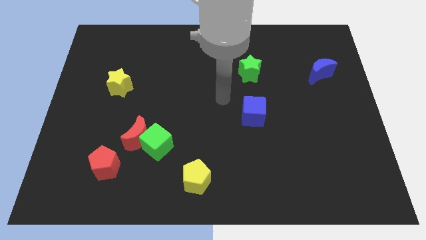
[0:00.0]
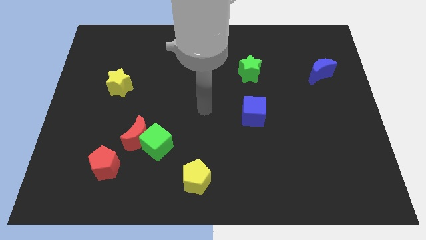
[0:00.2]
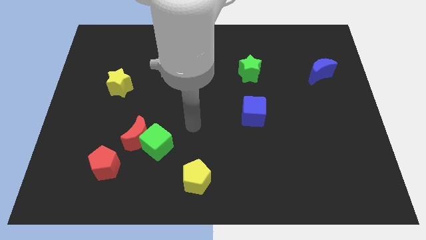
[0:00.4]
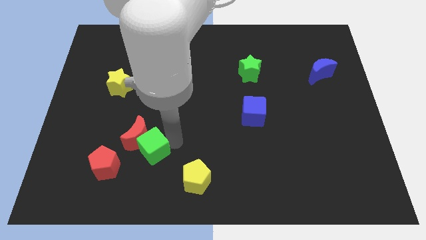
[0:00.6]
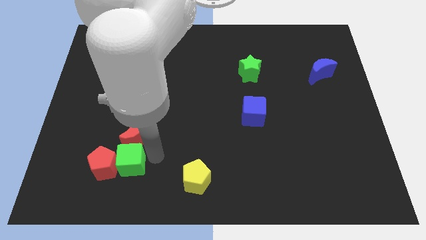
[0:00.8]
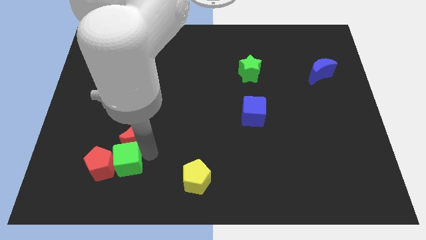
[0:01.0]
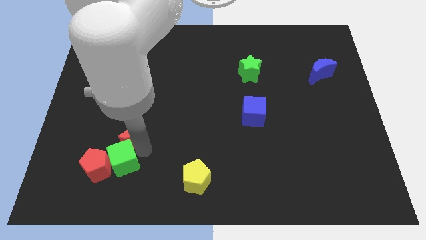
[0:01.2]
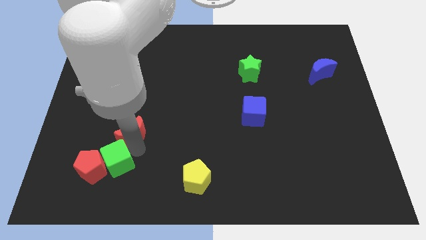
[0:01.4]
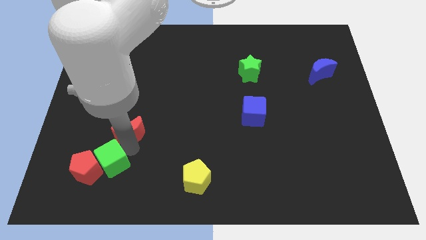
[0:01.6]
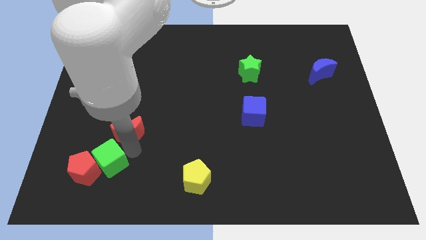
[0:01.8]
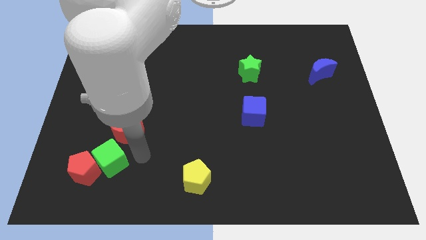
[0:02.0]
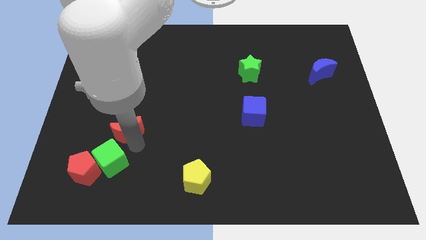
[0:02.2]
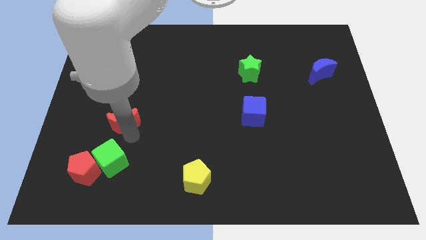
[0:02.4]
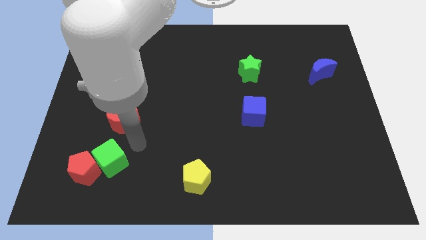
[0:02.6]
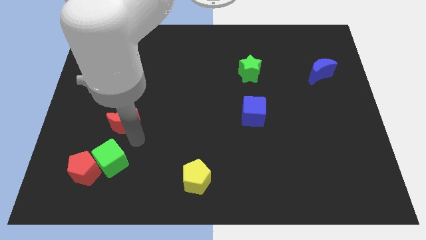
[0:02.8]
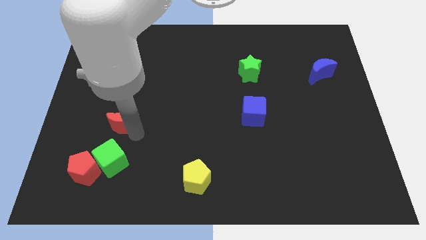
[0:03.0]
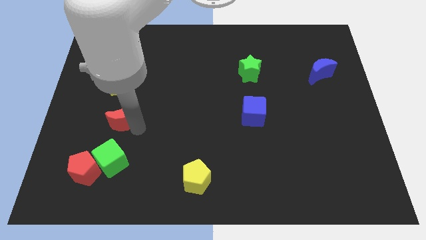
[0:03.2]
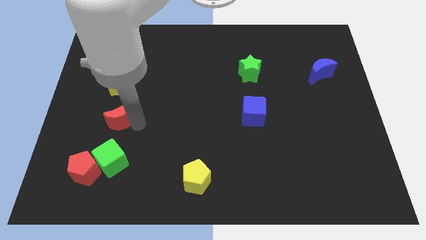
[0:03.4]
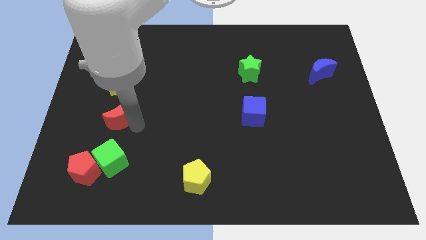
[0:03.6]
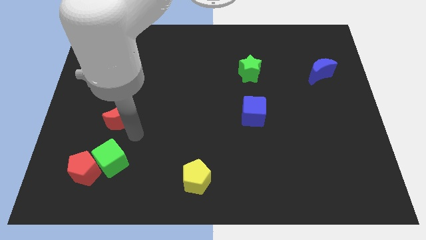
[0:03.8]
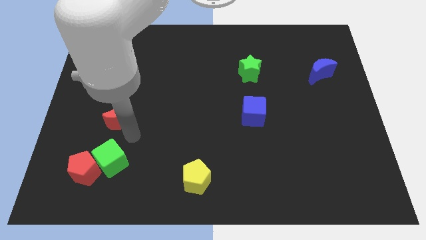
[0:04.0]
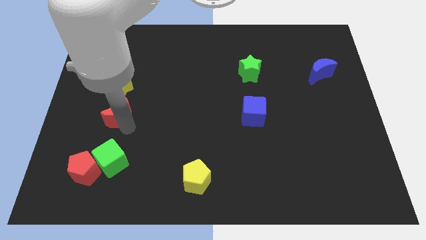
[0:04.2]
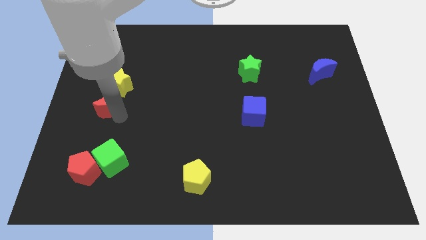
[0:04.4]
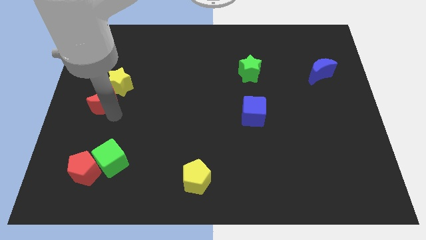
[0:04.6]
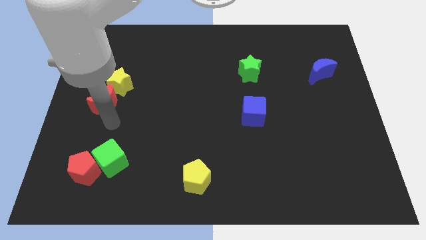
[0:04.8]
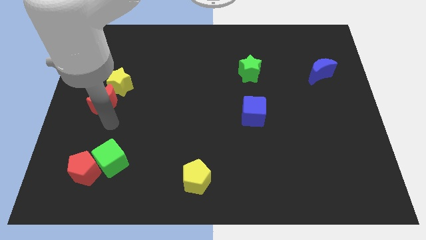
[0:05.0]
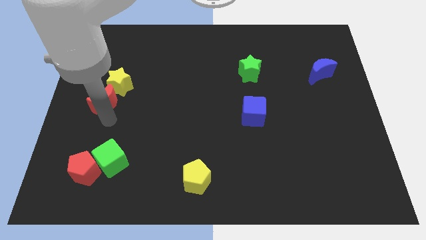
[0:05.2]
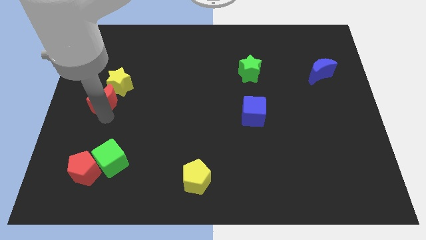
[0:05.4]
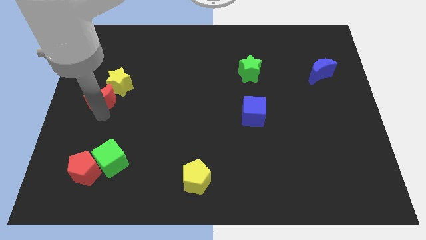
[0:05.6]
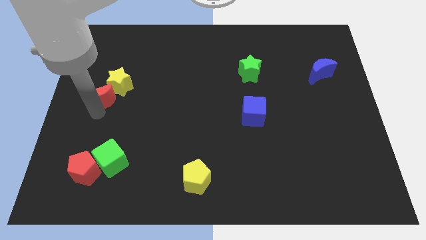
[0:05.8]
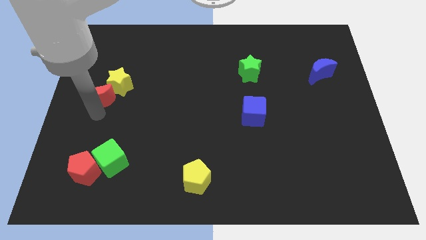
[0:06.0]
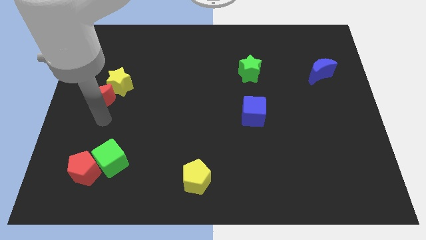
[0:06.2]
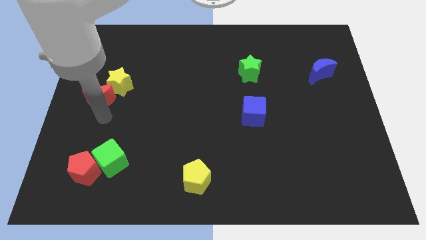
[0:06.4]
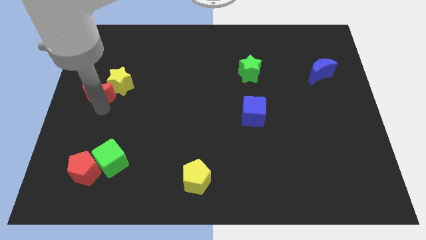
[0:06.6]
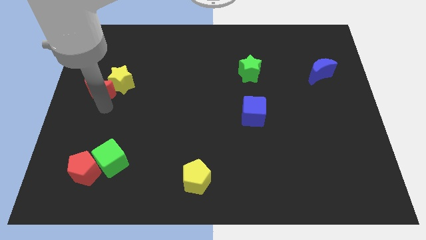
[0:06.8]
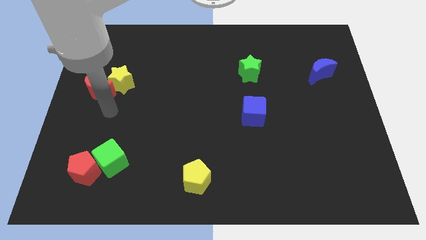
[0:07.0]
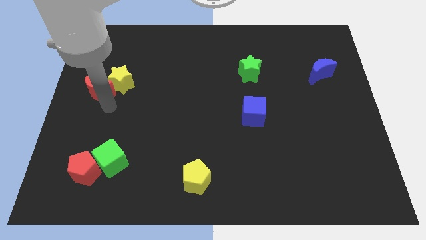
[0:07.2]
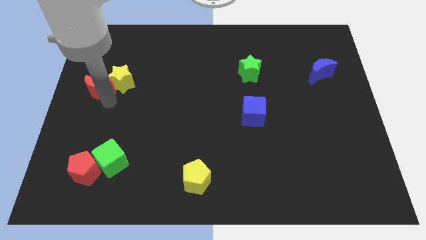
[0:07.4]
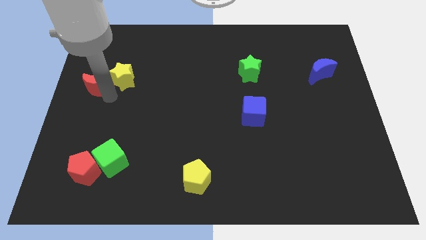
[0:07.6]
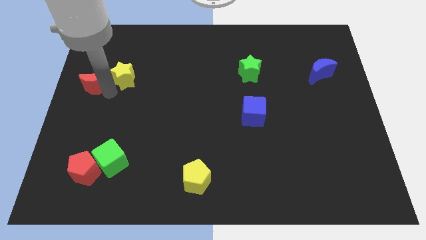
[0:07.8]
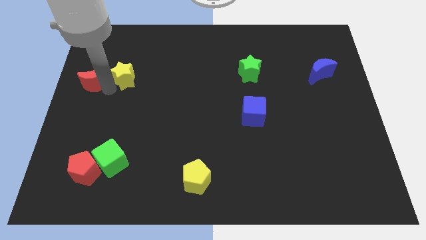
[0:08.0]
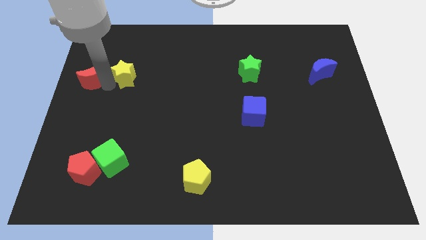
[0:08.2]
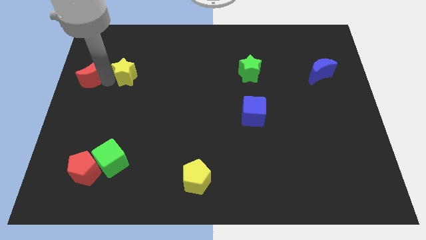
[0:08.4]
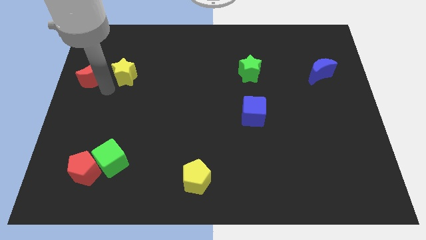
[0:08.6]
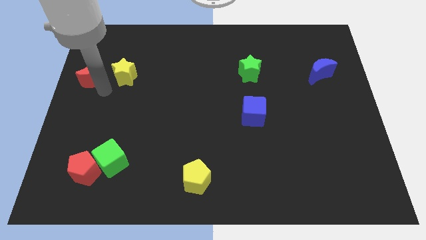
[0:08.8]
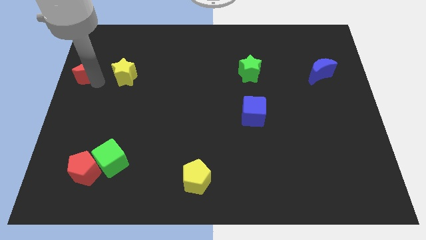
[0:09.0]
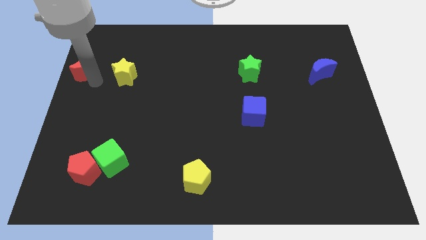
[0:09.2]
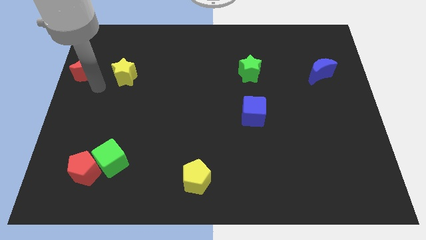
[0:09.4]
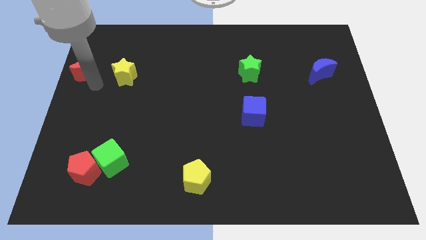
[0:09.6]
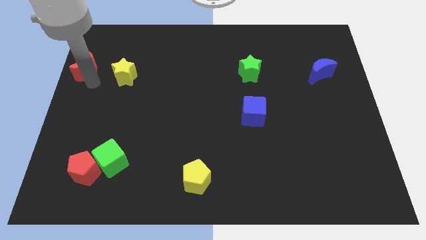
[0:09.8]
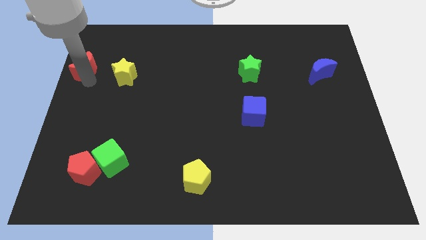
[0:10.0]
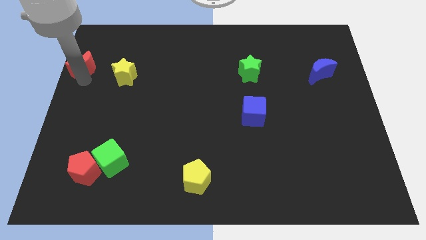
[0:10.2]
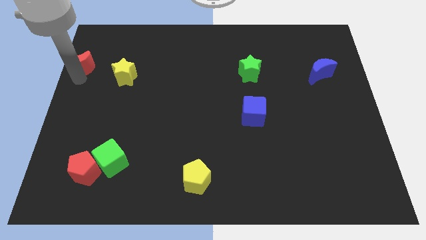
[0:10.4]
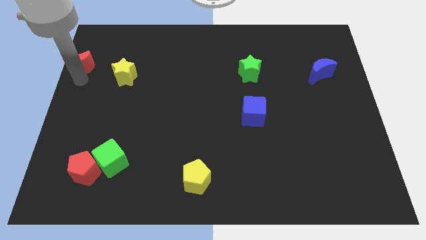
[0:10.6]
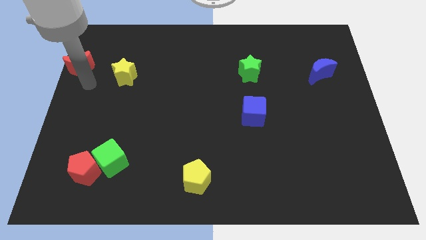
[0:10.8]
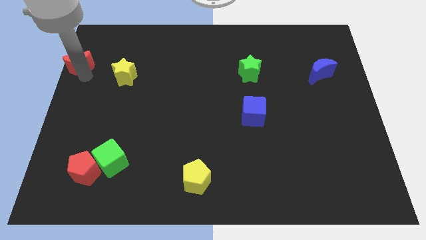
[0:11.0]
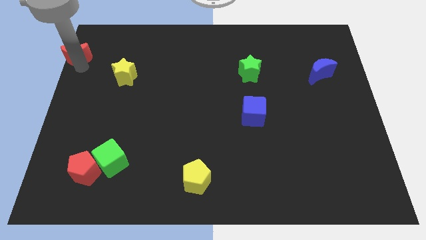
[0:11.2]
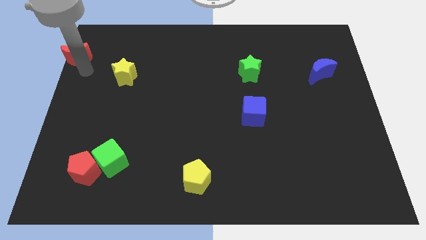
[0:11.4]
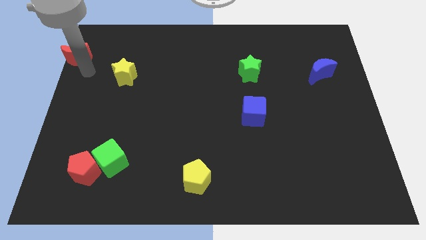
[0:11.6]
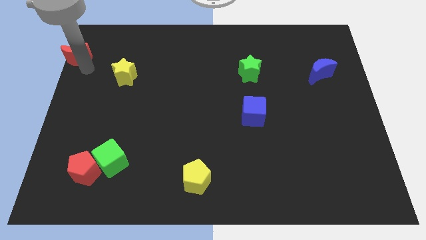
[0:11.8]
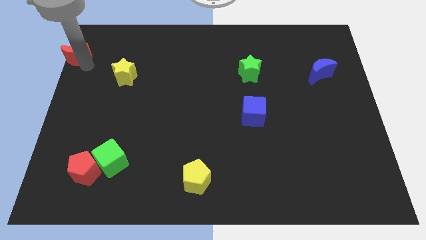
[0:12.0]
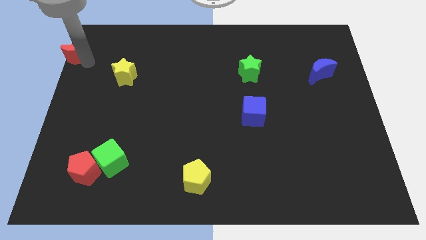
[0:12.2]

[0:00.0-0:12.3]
move the red moon to the upper left corner

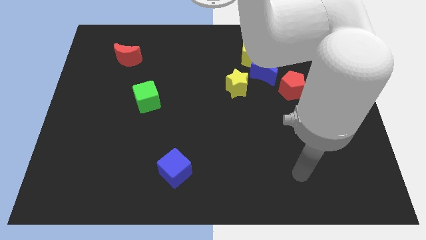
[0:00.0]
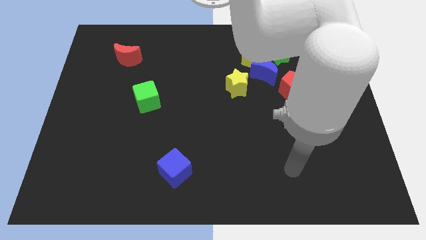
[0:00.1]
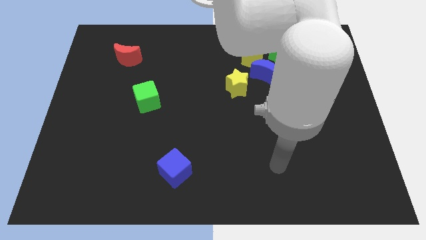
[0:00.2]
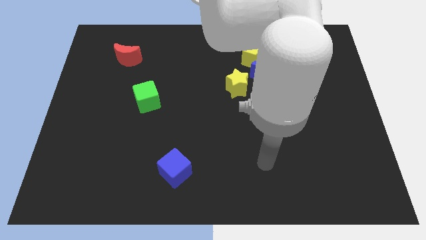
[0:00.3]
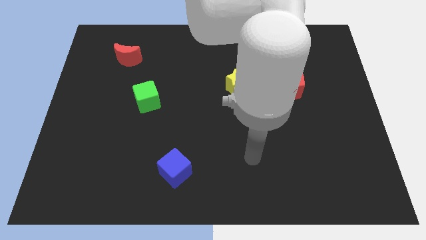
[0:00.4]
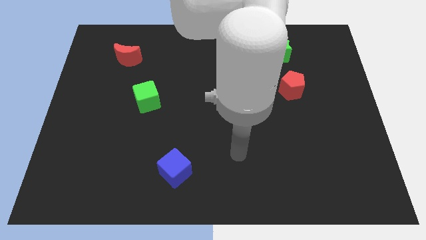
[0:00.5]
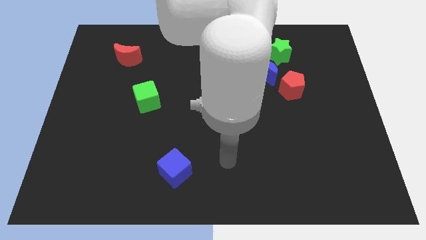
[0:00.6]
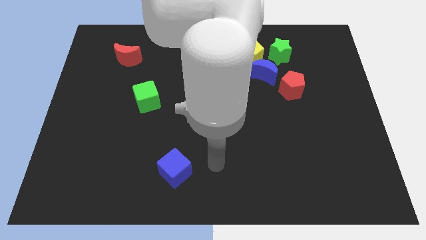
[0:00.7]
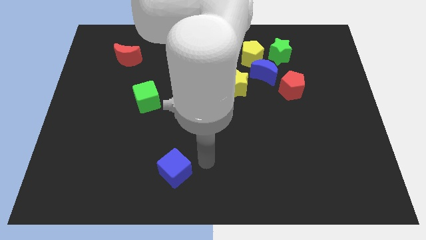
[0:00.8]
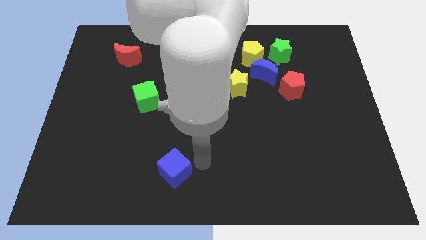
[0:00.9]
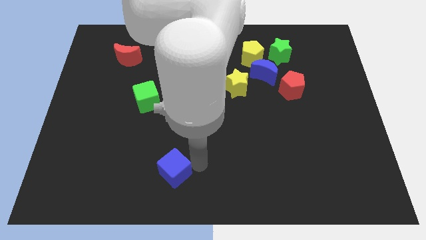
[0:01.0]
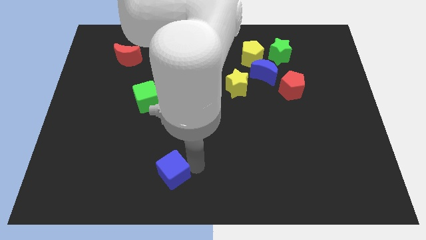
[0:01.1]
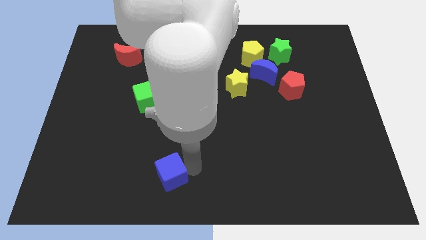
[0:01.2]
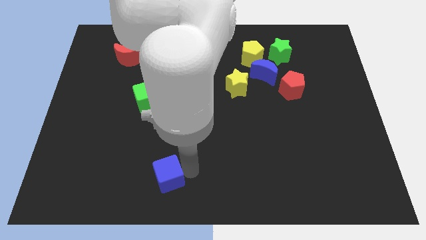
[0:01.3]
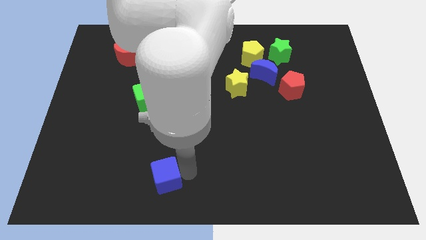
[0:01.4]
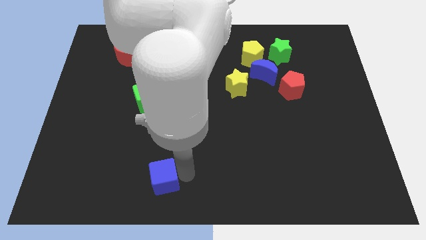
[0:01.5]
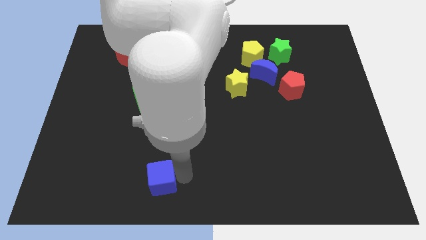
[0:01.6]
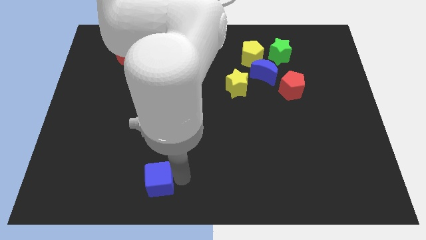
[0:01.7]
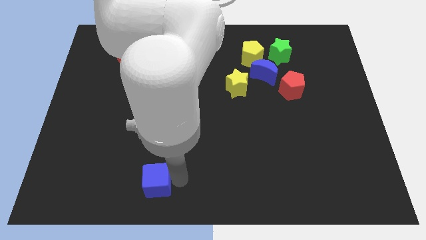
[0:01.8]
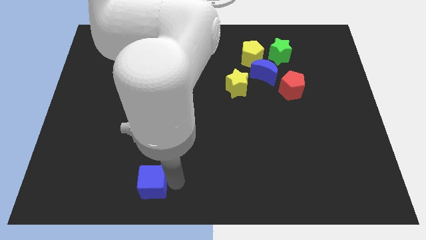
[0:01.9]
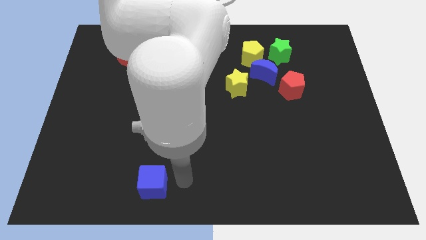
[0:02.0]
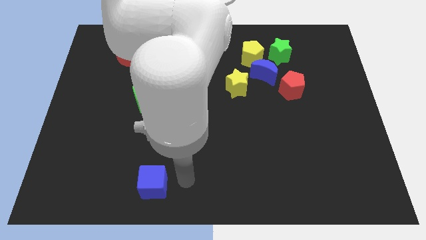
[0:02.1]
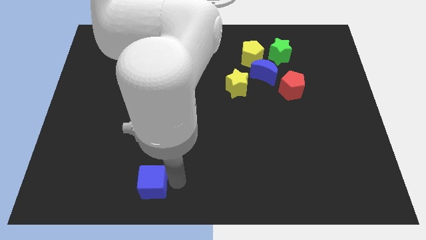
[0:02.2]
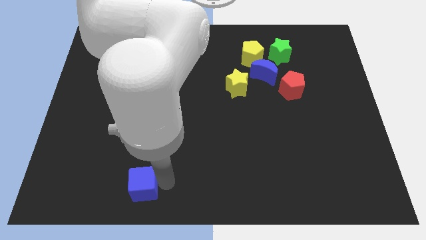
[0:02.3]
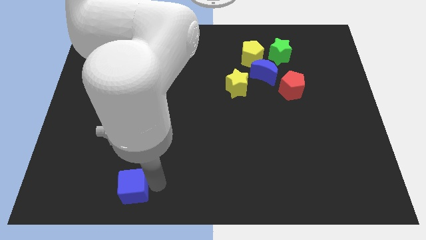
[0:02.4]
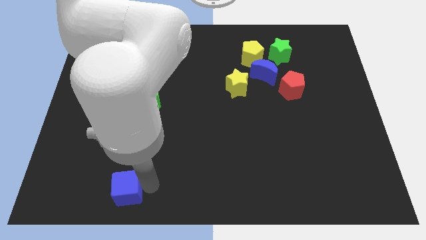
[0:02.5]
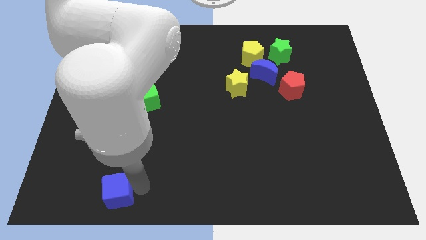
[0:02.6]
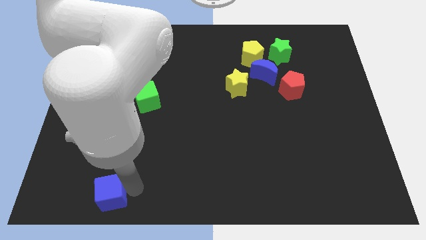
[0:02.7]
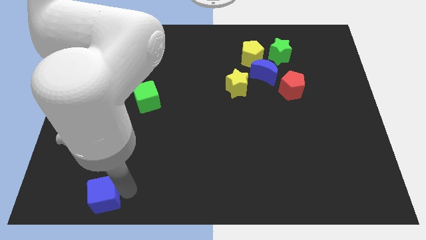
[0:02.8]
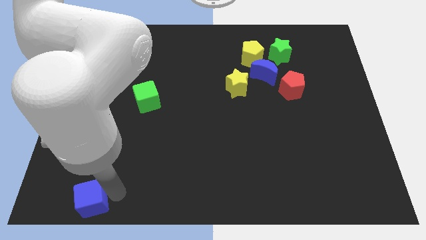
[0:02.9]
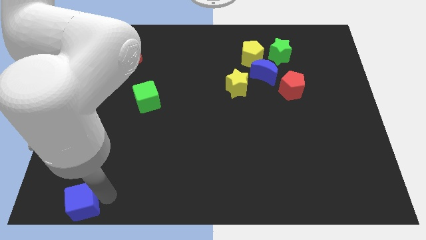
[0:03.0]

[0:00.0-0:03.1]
put the blue cube to the bottom left of the board
